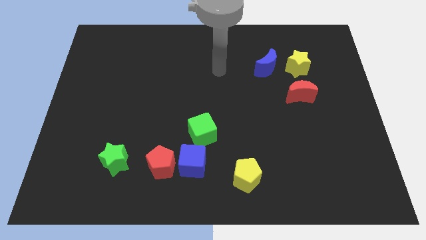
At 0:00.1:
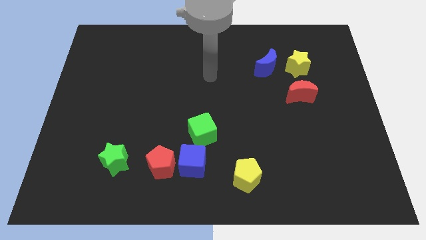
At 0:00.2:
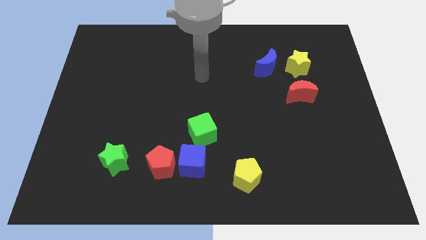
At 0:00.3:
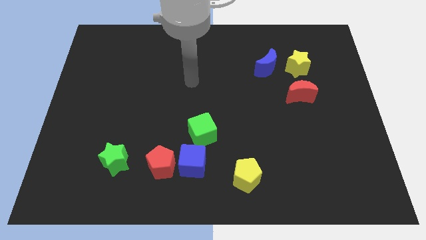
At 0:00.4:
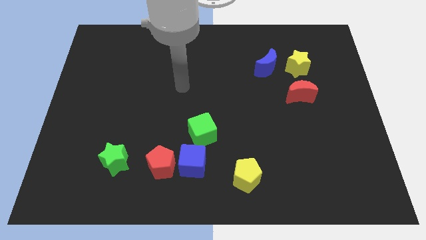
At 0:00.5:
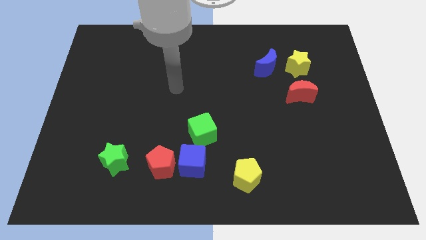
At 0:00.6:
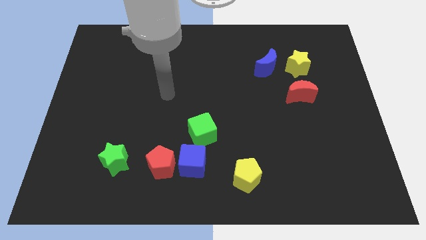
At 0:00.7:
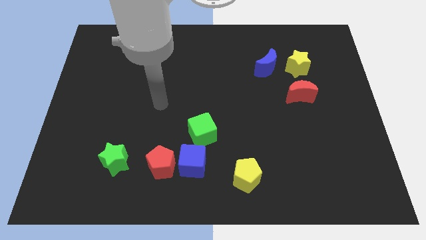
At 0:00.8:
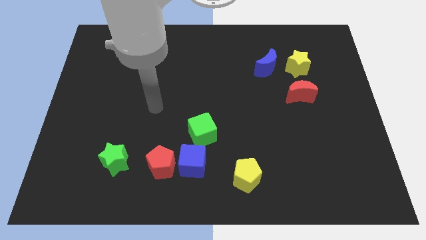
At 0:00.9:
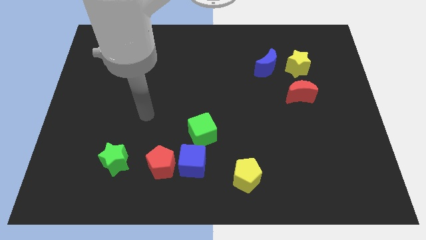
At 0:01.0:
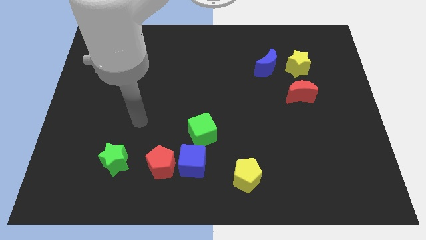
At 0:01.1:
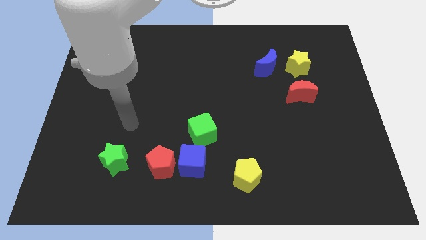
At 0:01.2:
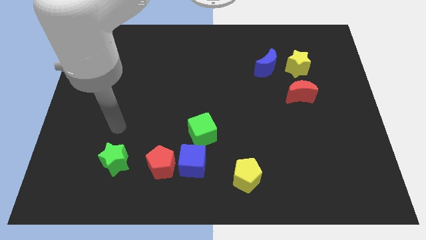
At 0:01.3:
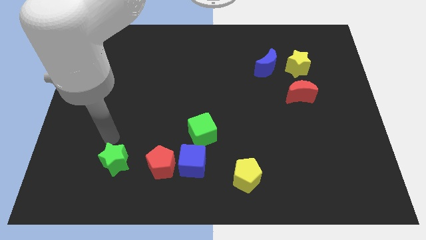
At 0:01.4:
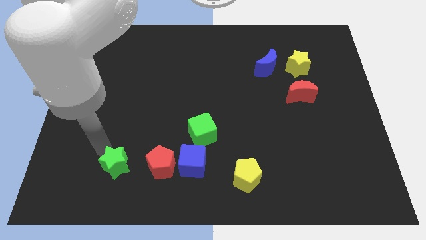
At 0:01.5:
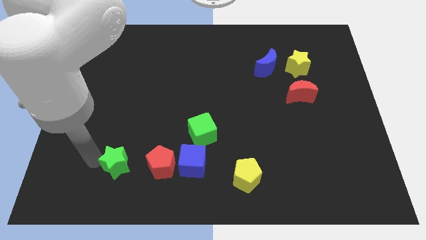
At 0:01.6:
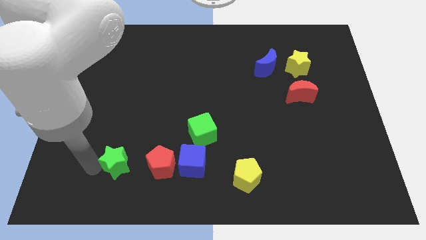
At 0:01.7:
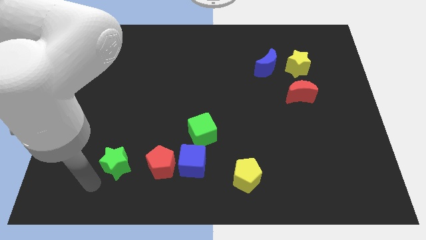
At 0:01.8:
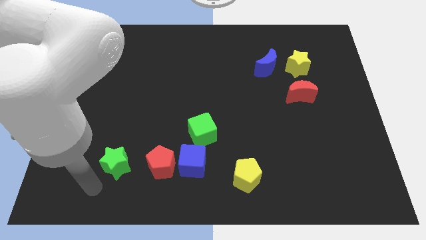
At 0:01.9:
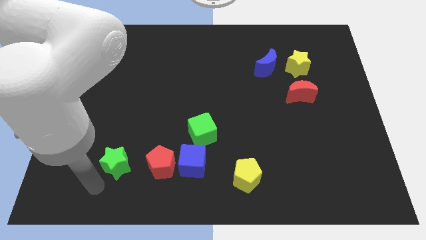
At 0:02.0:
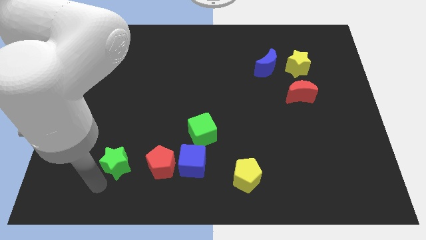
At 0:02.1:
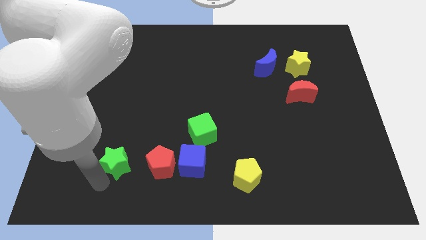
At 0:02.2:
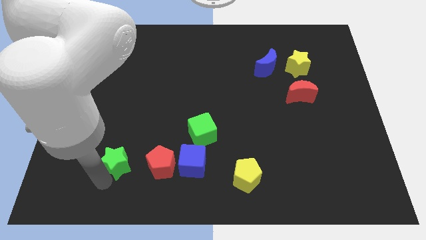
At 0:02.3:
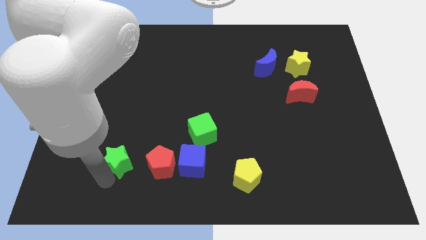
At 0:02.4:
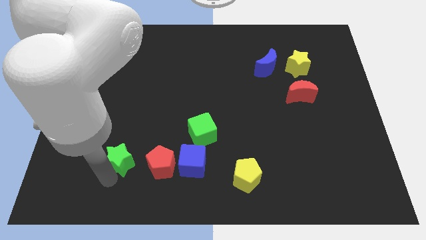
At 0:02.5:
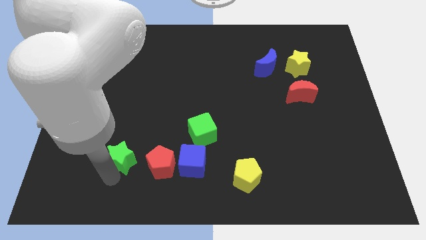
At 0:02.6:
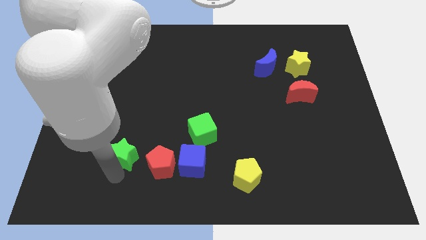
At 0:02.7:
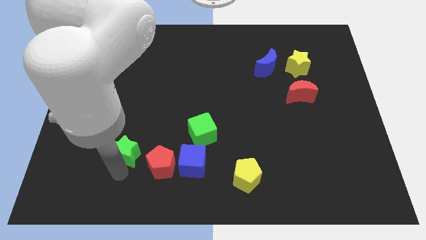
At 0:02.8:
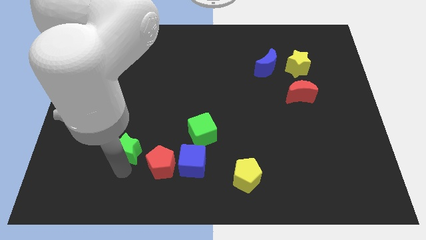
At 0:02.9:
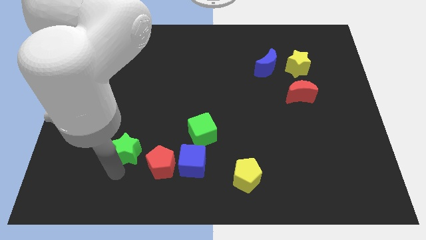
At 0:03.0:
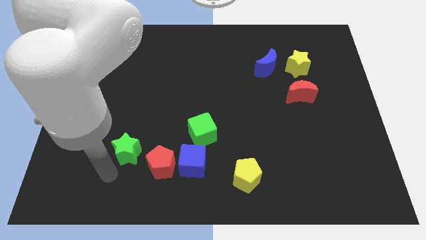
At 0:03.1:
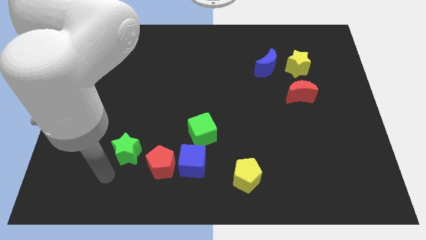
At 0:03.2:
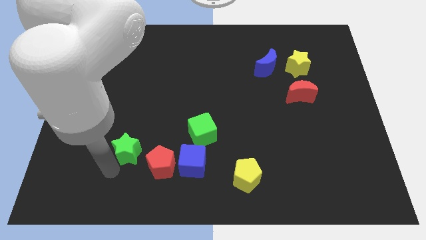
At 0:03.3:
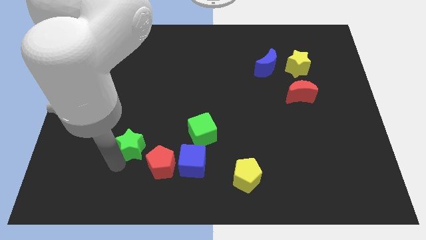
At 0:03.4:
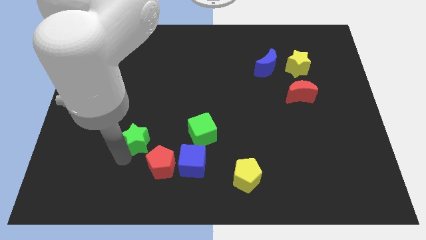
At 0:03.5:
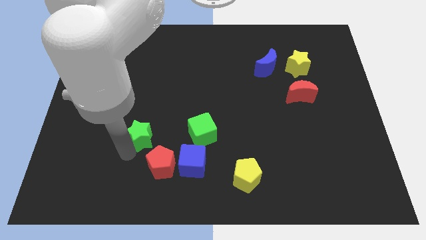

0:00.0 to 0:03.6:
slightly move the green star upwards and to the right diagonally

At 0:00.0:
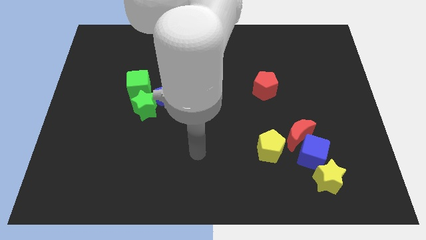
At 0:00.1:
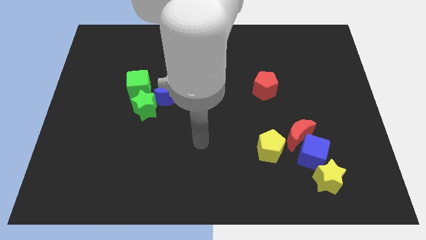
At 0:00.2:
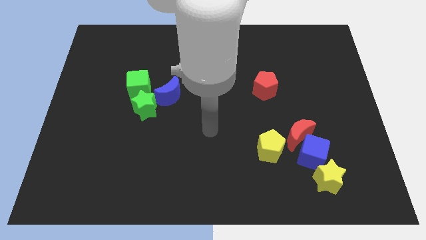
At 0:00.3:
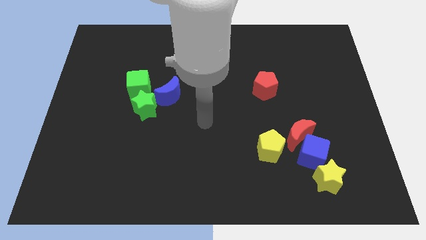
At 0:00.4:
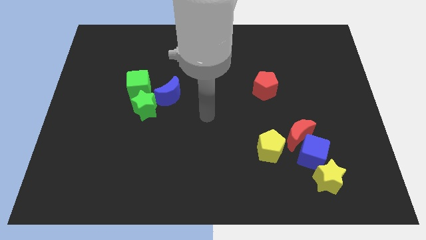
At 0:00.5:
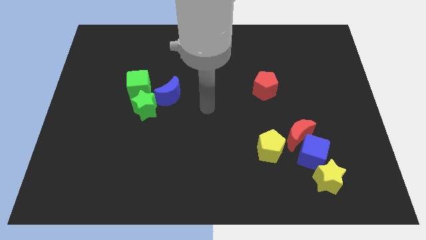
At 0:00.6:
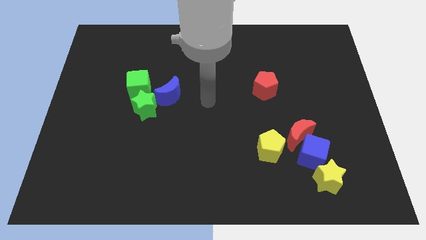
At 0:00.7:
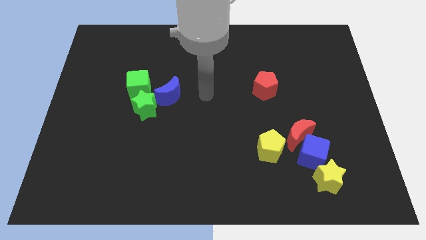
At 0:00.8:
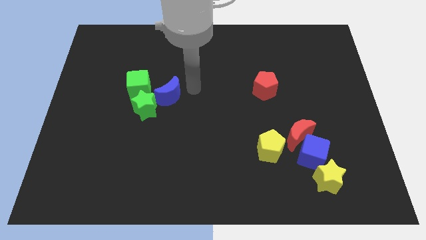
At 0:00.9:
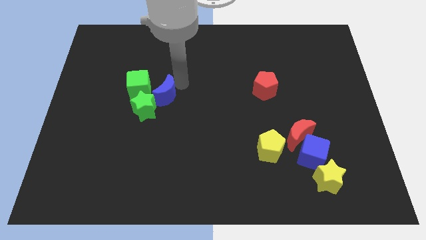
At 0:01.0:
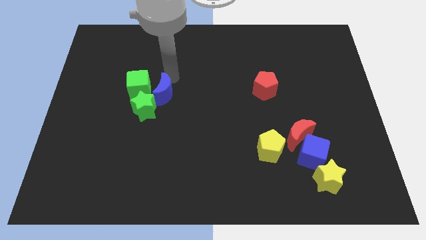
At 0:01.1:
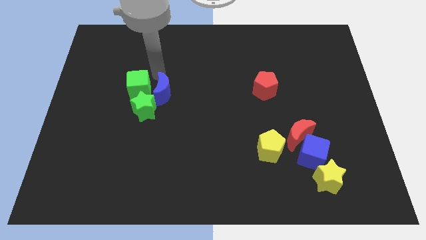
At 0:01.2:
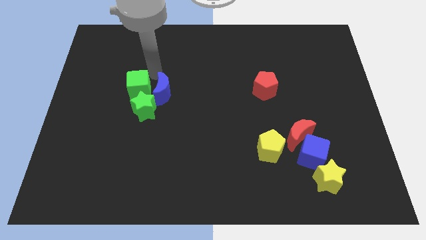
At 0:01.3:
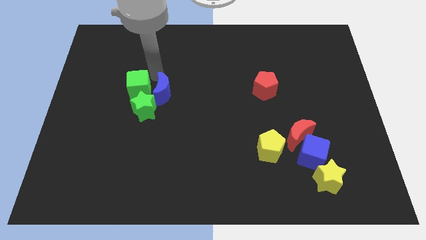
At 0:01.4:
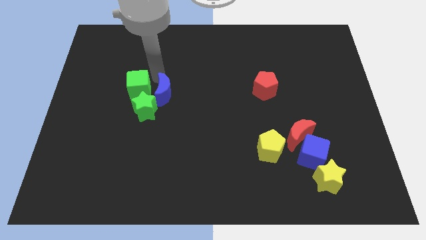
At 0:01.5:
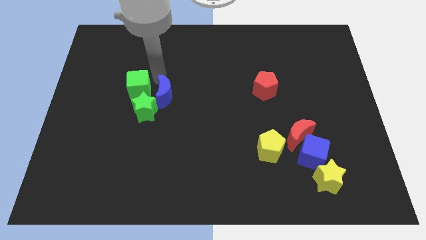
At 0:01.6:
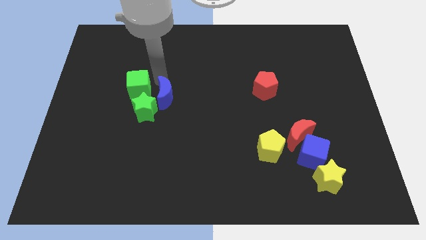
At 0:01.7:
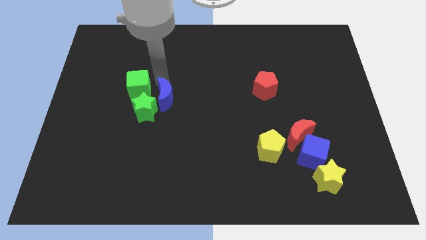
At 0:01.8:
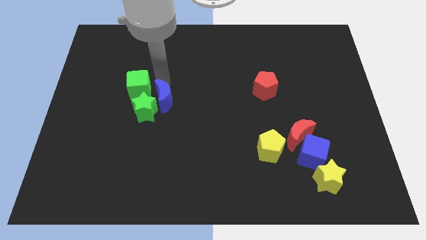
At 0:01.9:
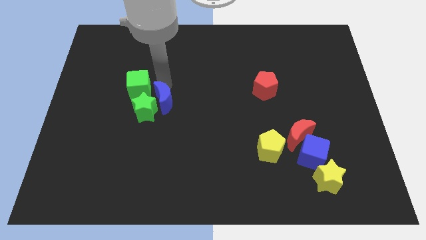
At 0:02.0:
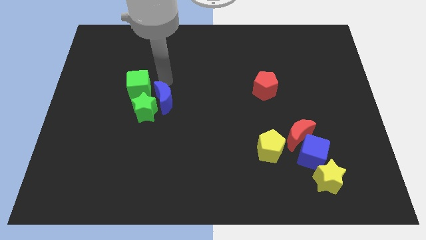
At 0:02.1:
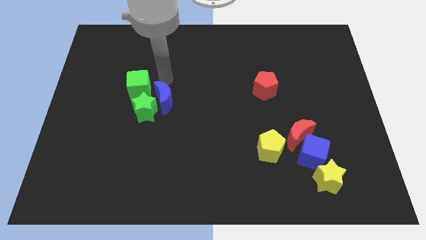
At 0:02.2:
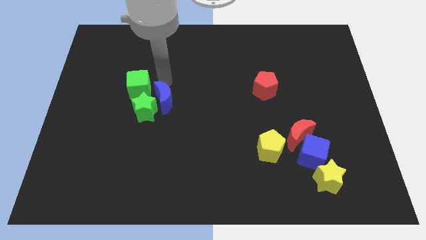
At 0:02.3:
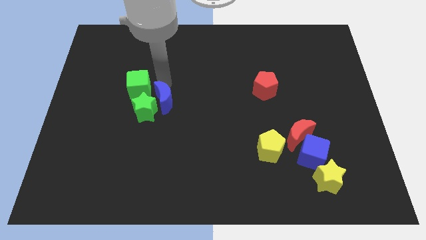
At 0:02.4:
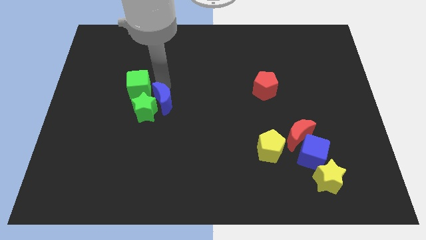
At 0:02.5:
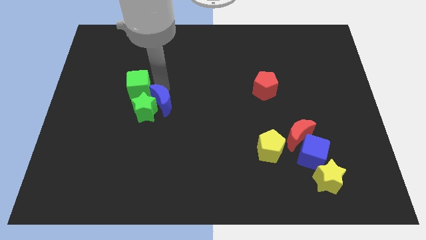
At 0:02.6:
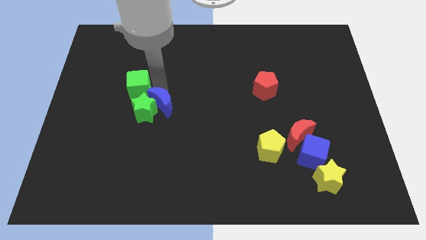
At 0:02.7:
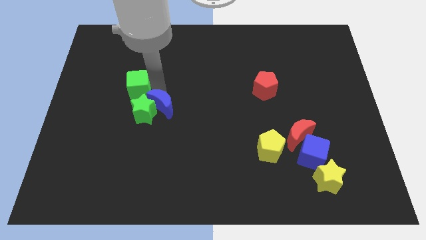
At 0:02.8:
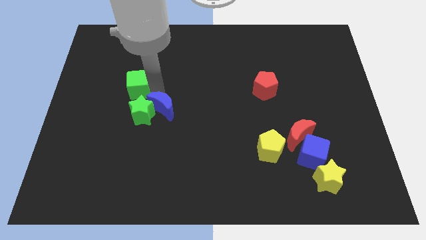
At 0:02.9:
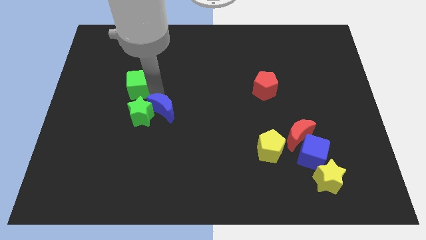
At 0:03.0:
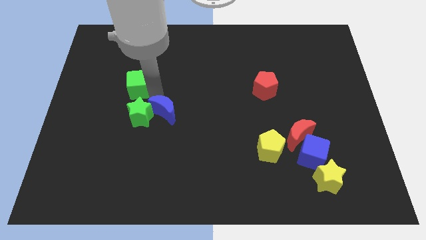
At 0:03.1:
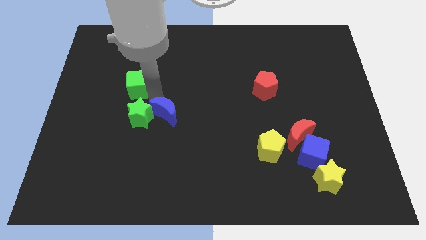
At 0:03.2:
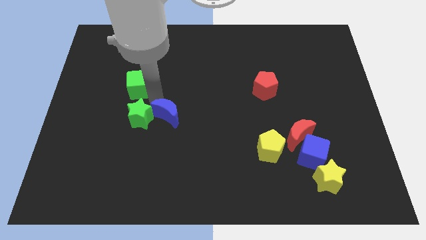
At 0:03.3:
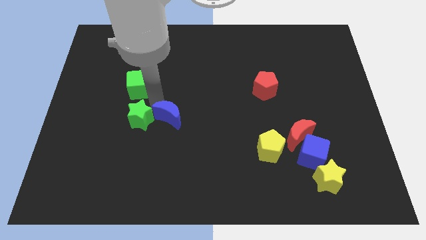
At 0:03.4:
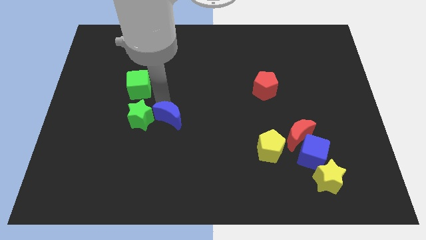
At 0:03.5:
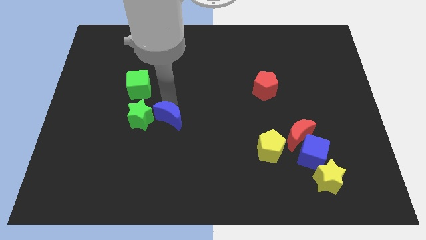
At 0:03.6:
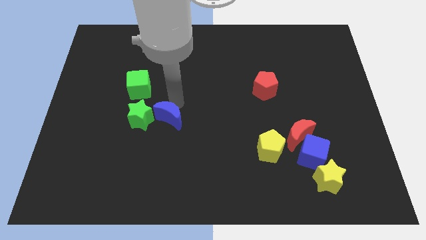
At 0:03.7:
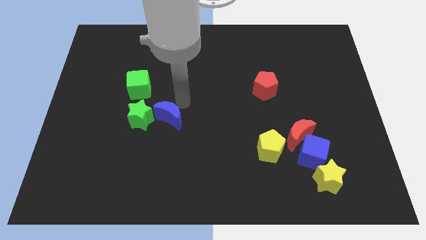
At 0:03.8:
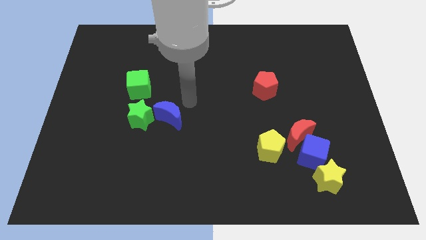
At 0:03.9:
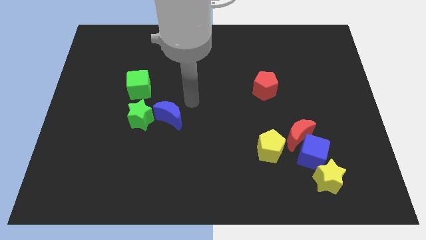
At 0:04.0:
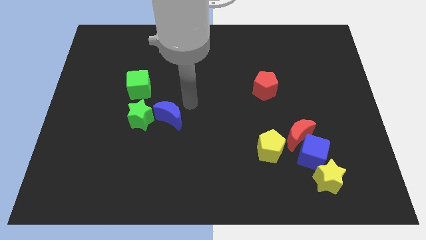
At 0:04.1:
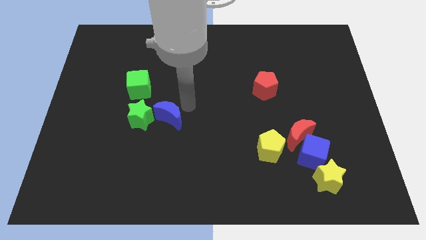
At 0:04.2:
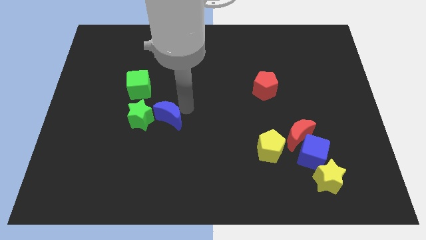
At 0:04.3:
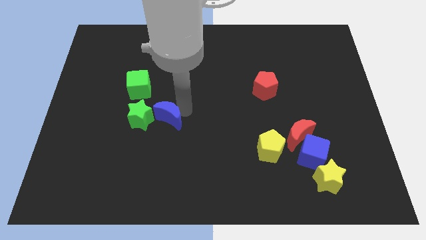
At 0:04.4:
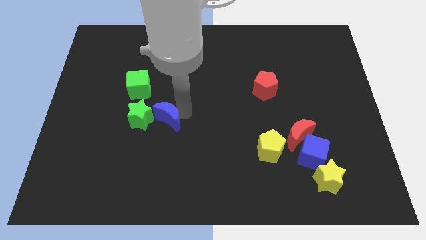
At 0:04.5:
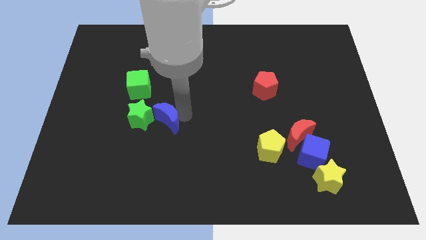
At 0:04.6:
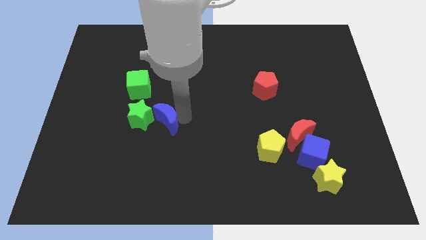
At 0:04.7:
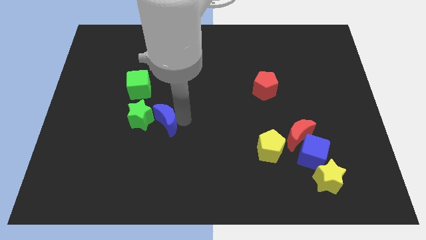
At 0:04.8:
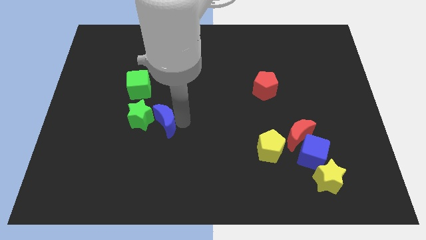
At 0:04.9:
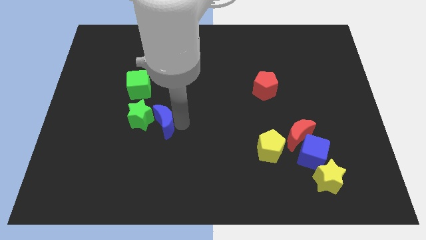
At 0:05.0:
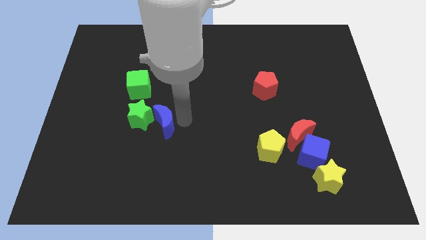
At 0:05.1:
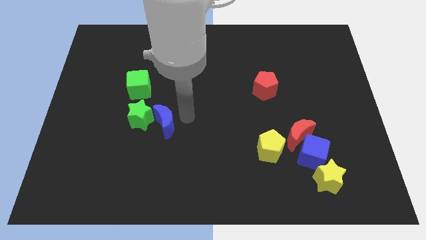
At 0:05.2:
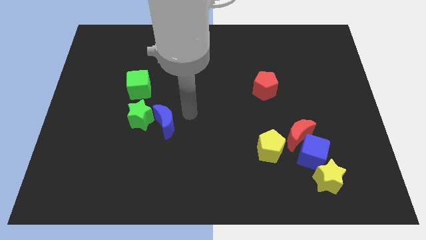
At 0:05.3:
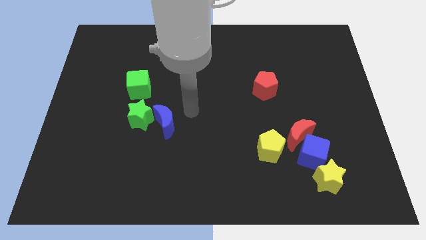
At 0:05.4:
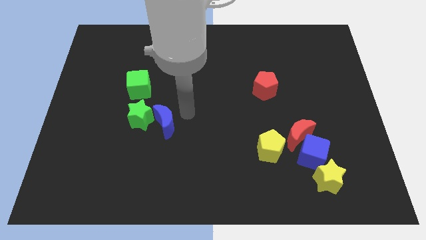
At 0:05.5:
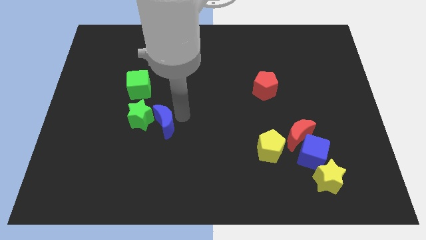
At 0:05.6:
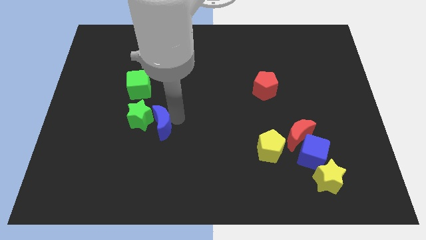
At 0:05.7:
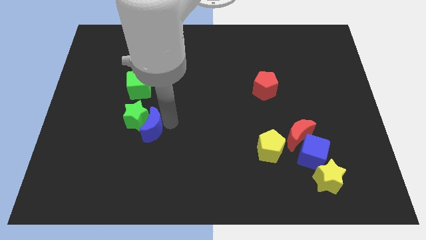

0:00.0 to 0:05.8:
push the blue moon diagonally down and left somewhat
